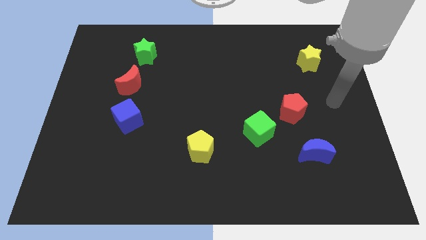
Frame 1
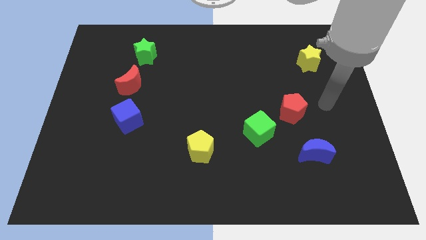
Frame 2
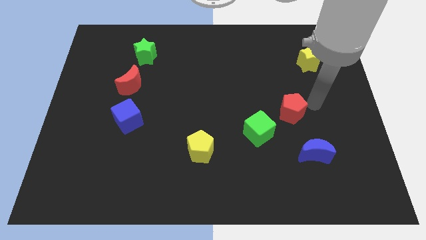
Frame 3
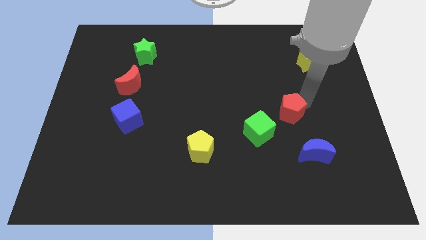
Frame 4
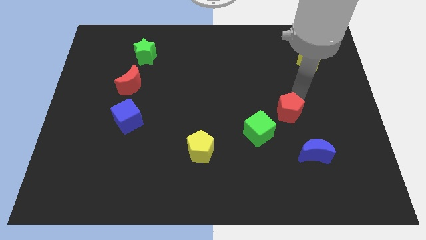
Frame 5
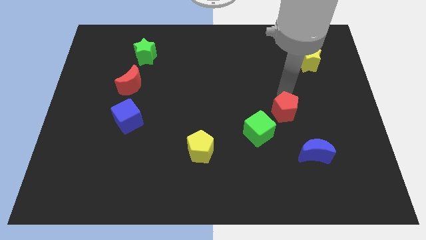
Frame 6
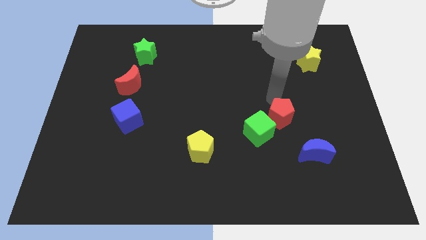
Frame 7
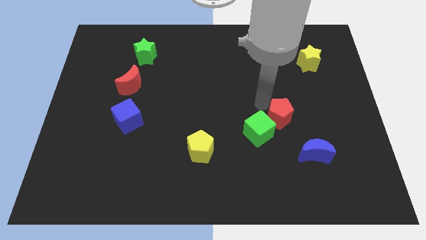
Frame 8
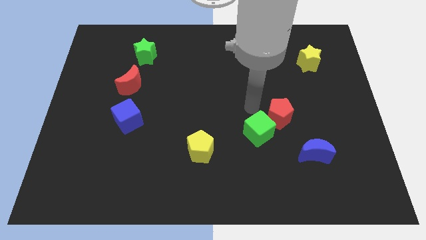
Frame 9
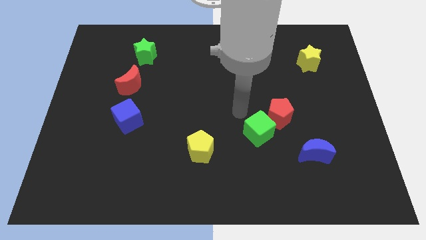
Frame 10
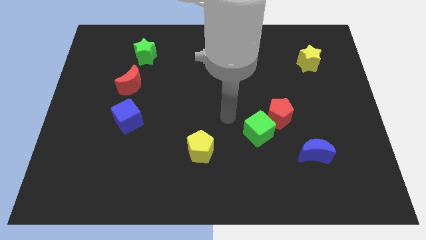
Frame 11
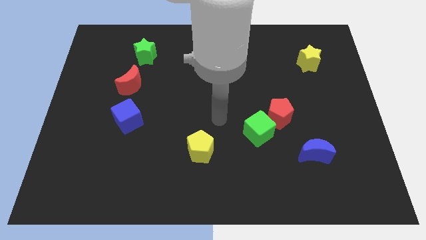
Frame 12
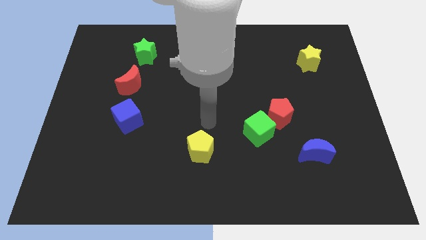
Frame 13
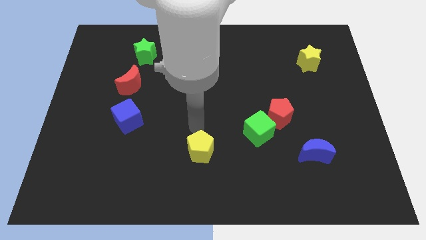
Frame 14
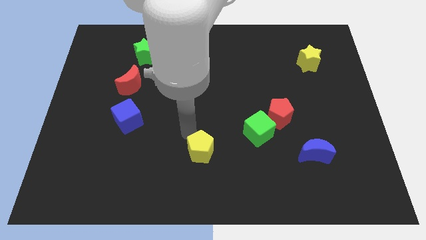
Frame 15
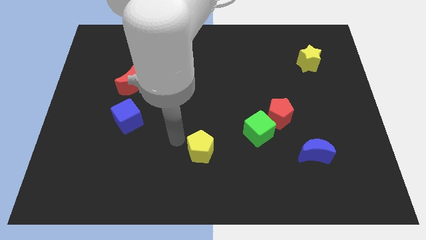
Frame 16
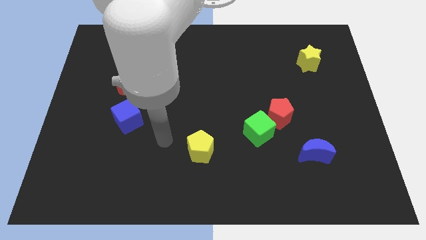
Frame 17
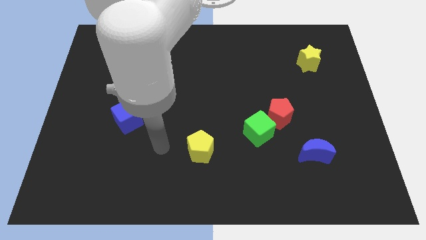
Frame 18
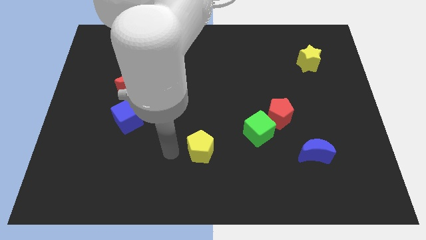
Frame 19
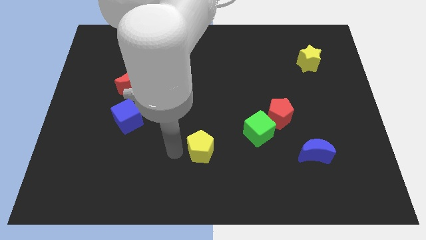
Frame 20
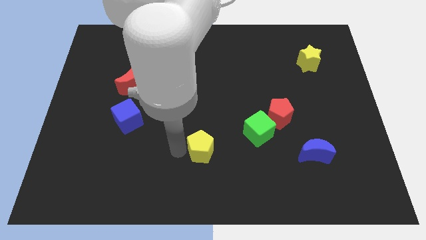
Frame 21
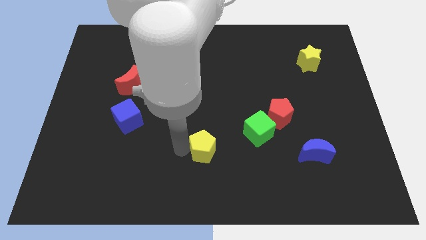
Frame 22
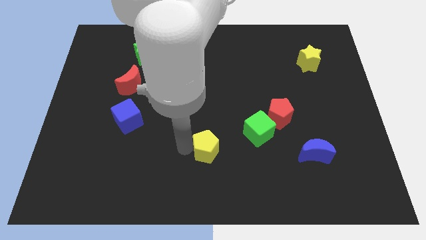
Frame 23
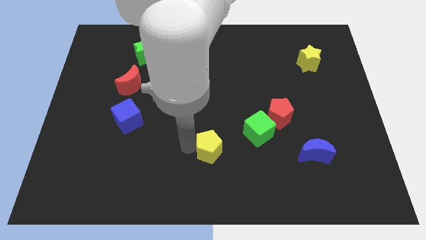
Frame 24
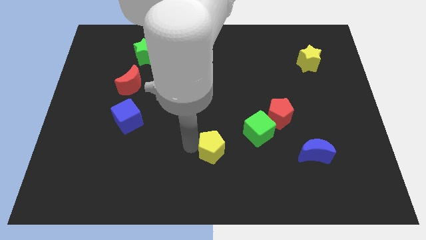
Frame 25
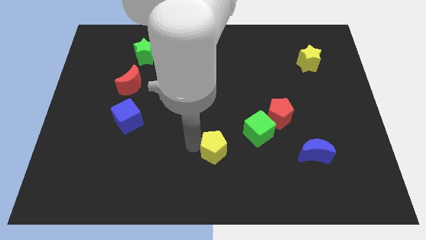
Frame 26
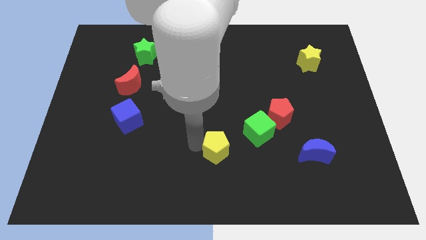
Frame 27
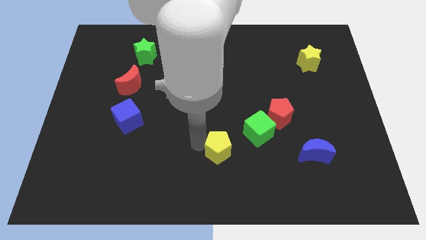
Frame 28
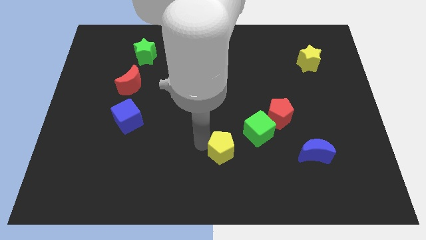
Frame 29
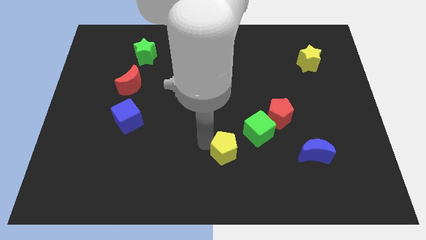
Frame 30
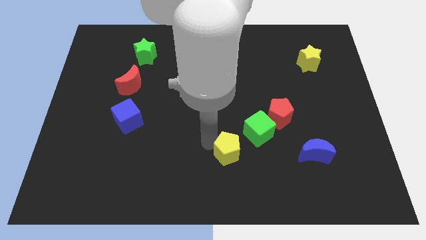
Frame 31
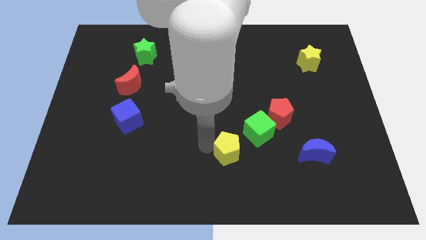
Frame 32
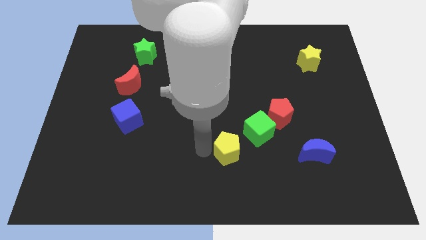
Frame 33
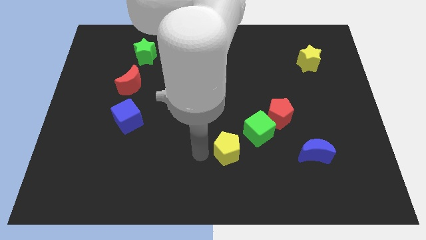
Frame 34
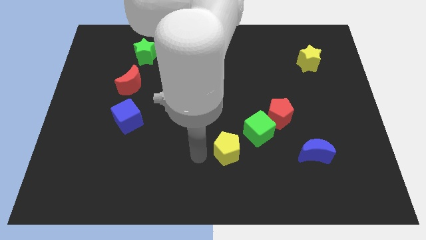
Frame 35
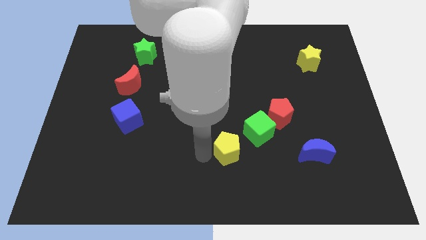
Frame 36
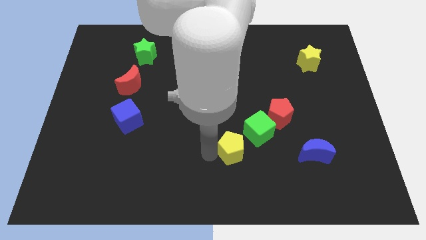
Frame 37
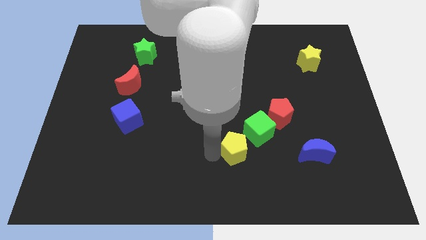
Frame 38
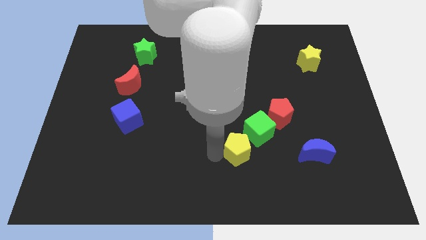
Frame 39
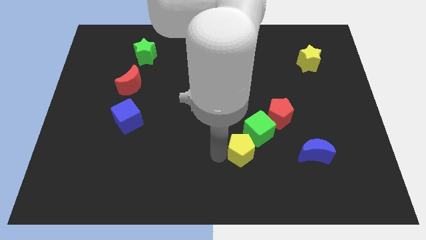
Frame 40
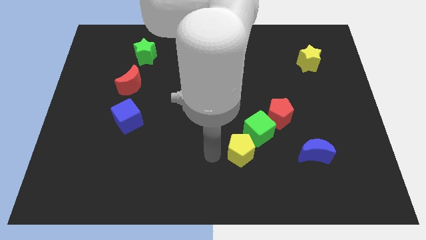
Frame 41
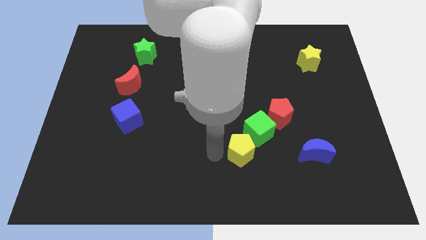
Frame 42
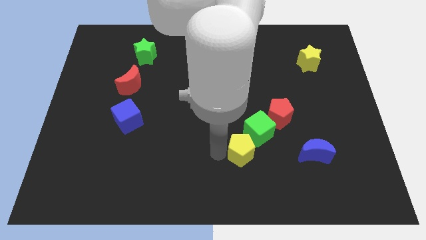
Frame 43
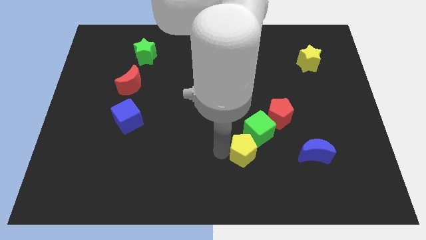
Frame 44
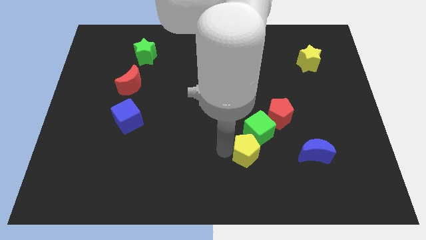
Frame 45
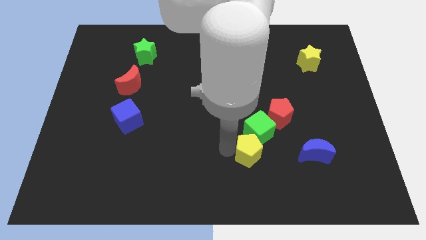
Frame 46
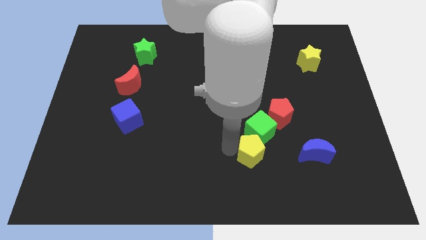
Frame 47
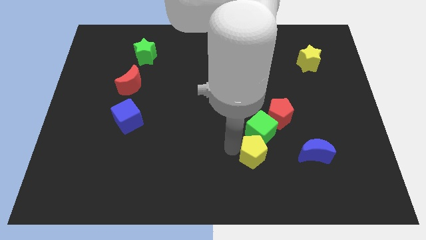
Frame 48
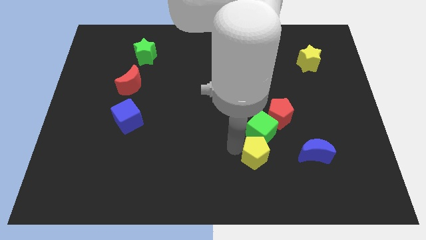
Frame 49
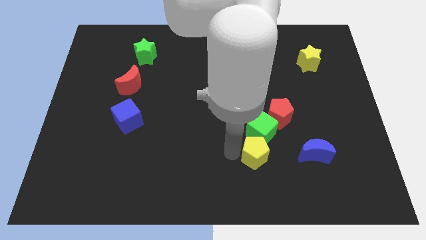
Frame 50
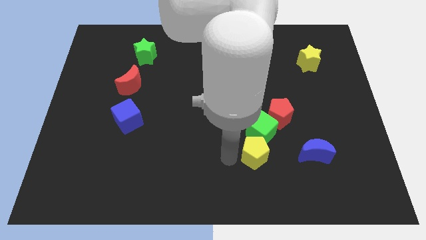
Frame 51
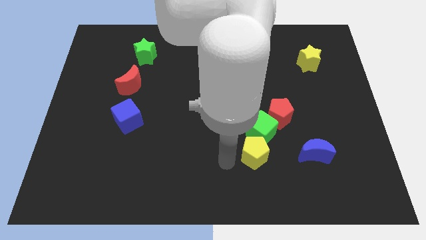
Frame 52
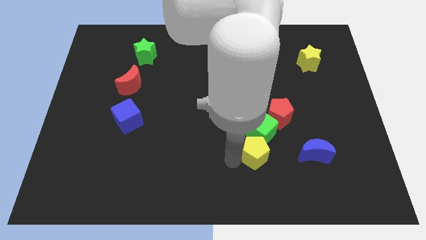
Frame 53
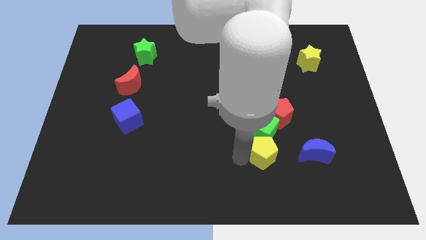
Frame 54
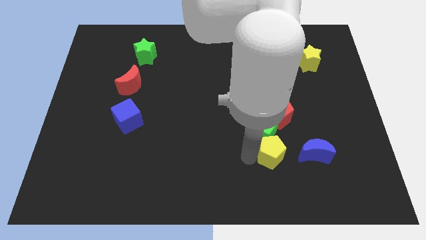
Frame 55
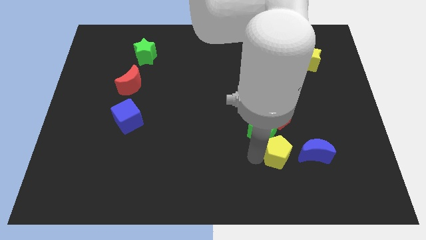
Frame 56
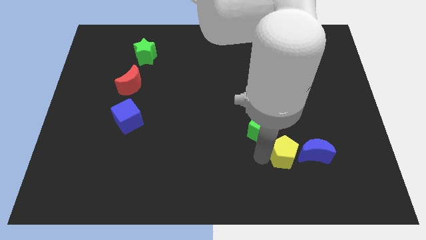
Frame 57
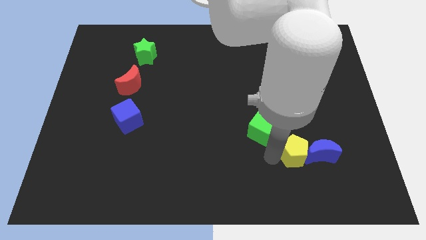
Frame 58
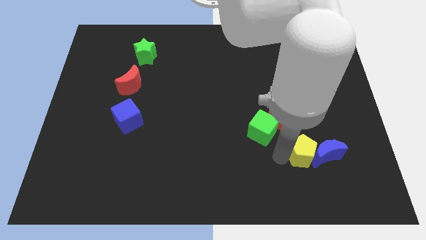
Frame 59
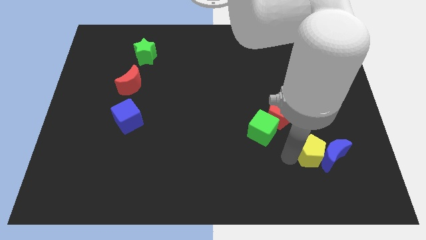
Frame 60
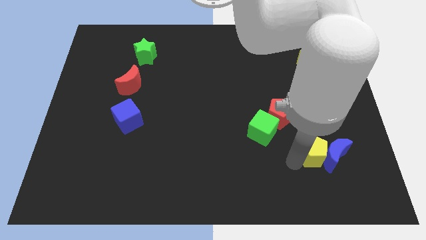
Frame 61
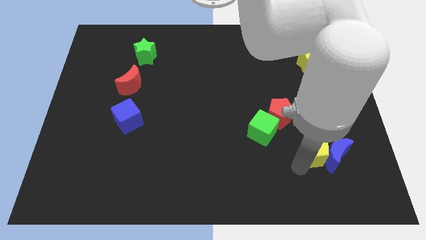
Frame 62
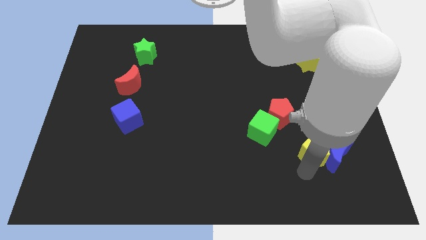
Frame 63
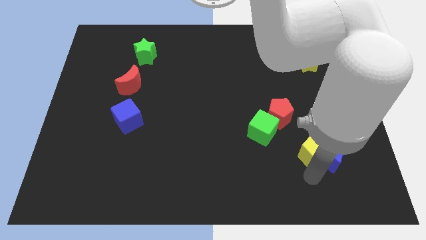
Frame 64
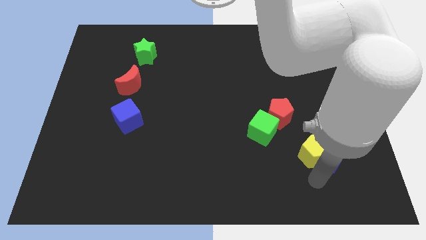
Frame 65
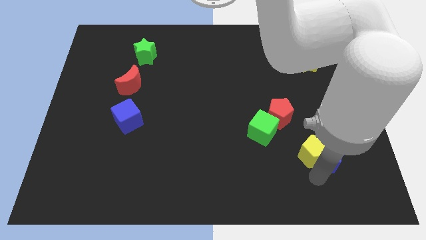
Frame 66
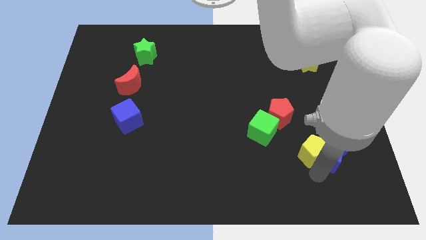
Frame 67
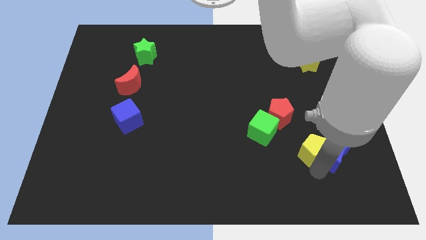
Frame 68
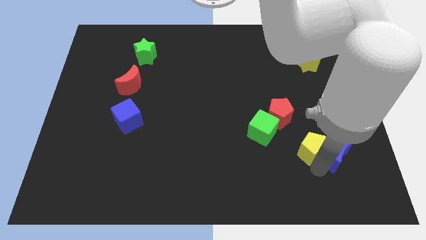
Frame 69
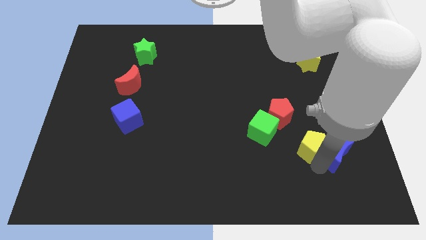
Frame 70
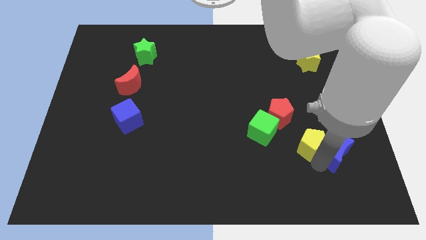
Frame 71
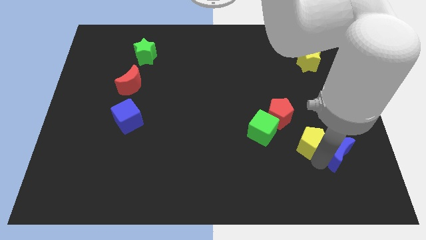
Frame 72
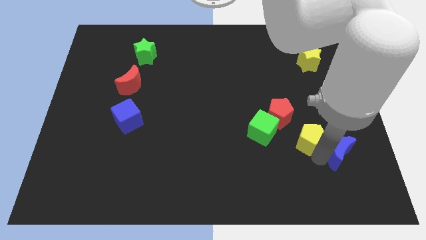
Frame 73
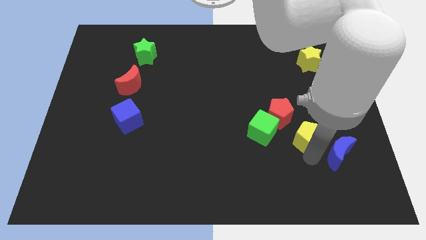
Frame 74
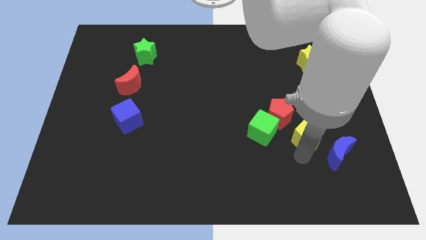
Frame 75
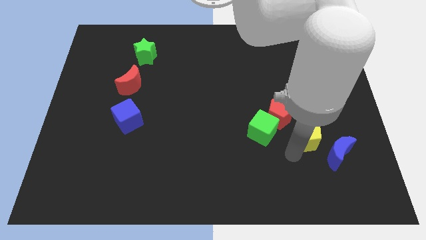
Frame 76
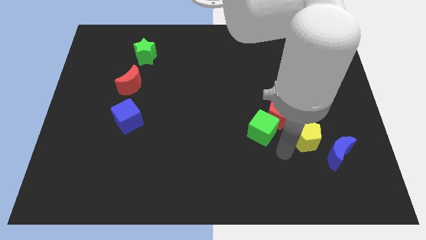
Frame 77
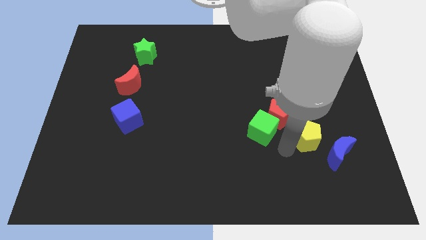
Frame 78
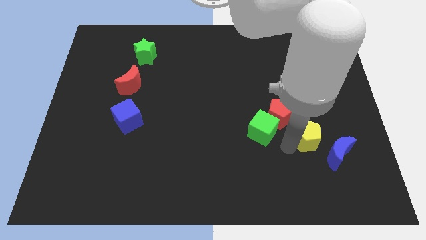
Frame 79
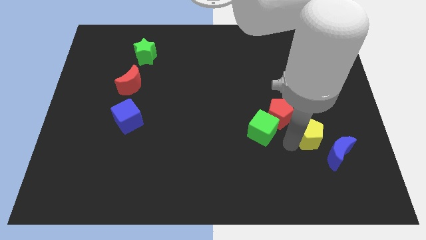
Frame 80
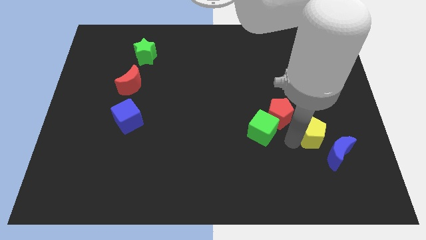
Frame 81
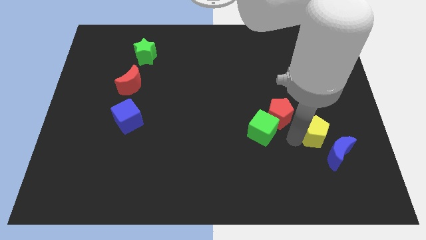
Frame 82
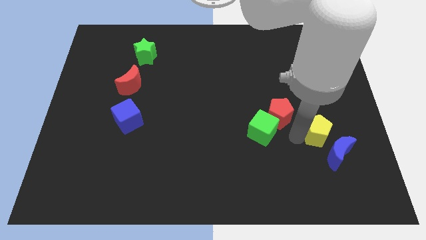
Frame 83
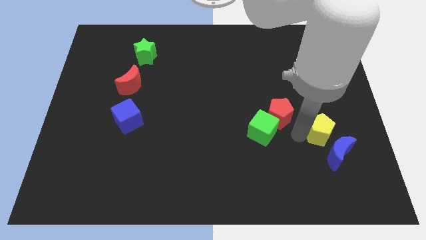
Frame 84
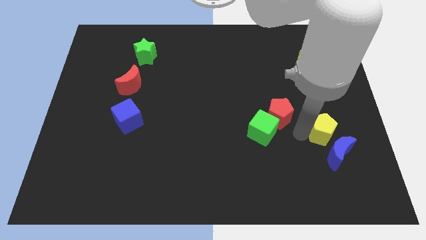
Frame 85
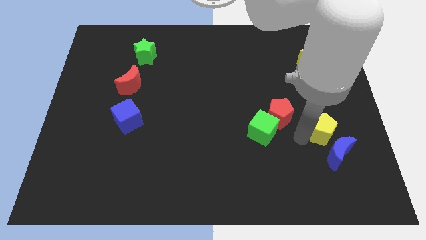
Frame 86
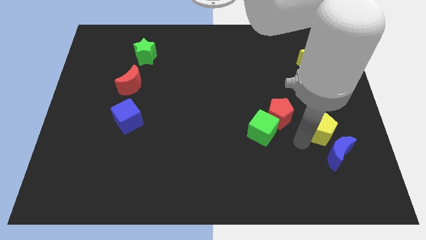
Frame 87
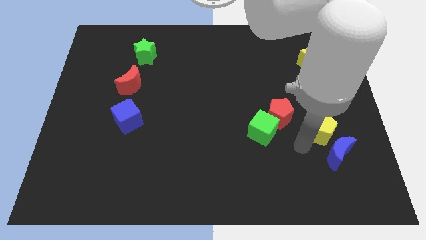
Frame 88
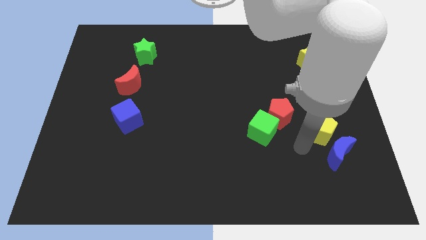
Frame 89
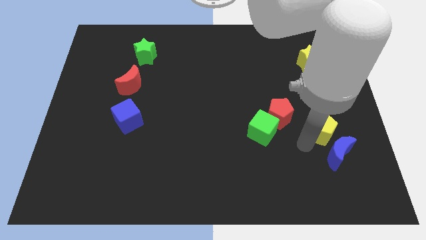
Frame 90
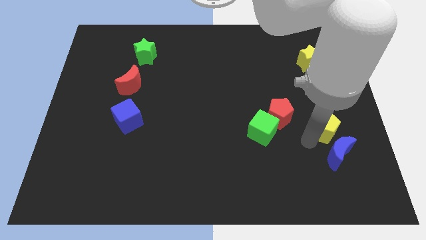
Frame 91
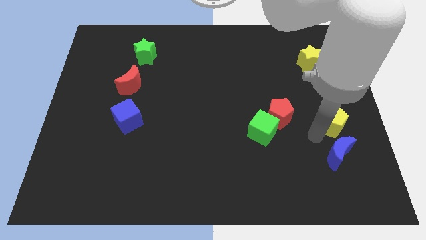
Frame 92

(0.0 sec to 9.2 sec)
slide the yellow pentagon to the center right
